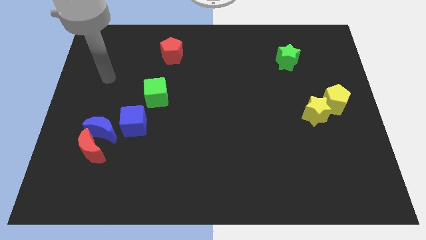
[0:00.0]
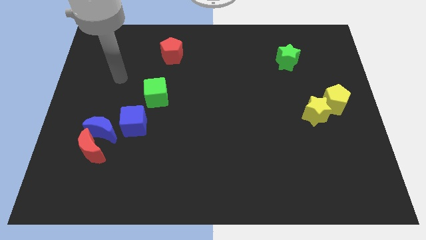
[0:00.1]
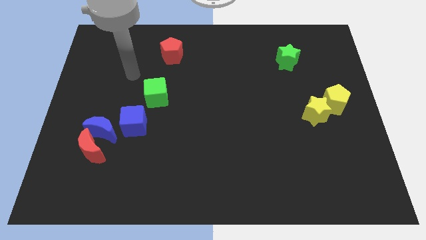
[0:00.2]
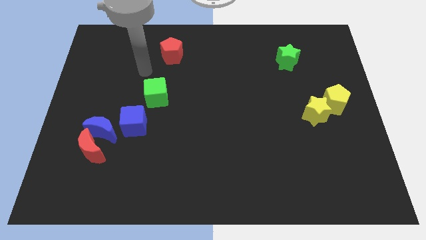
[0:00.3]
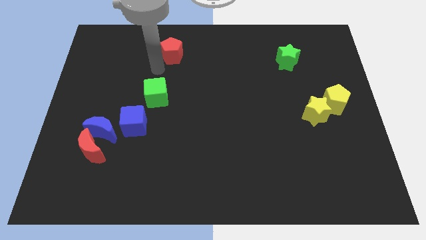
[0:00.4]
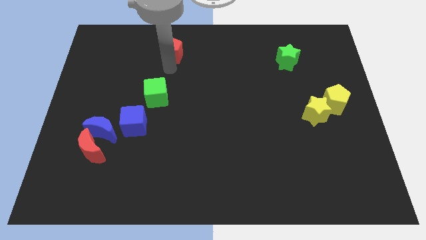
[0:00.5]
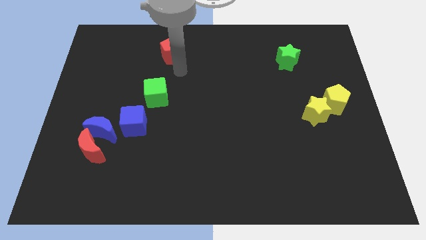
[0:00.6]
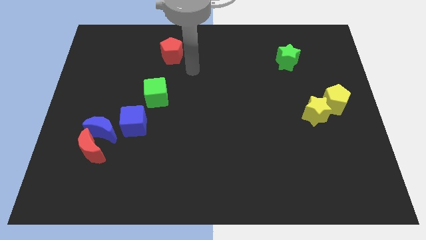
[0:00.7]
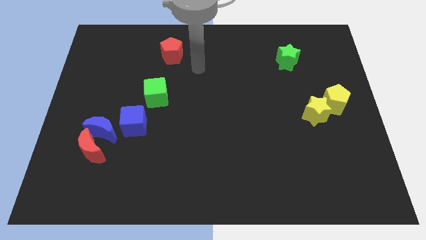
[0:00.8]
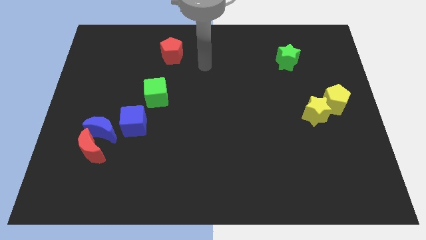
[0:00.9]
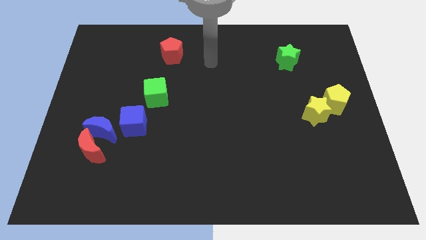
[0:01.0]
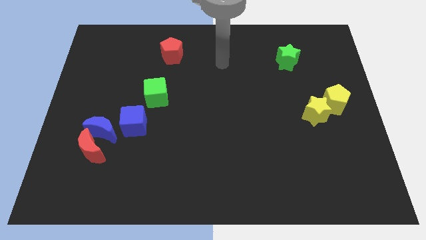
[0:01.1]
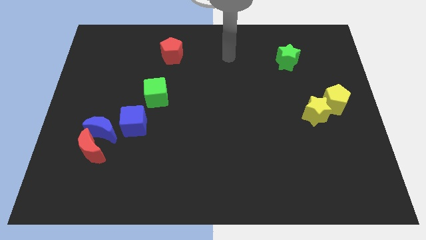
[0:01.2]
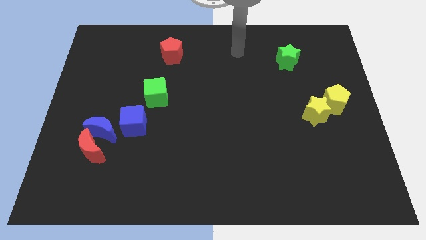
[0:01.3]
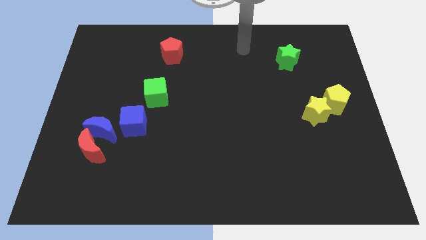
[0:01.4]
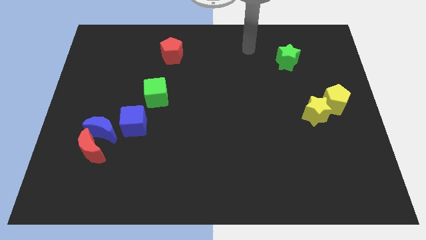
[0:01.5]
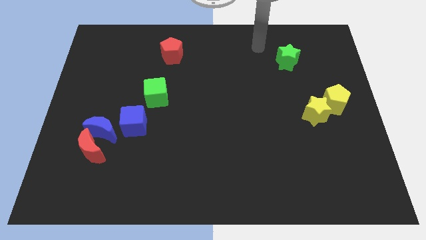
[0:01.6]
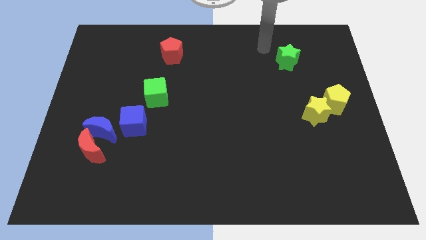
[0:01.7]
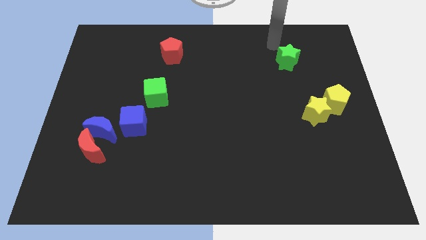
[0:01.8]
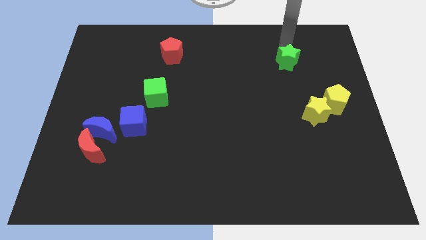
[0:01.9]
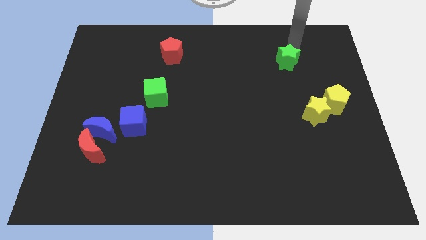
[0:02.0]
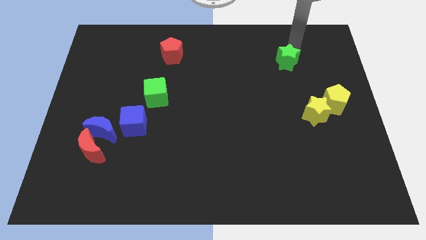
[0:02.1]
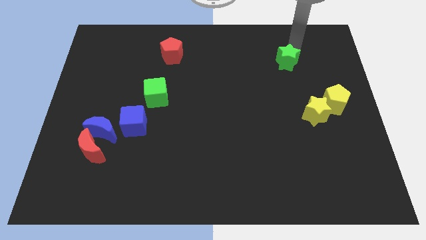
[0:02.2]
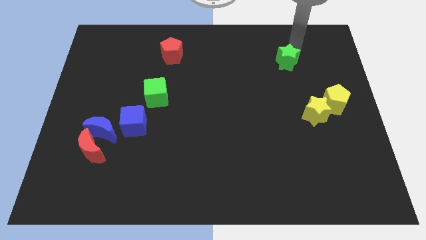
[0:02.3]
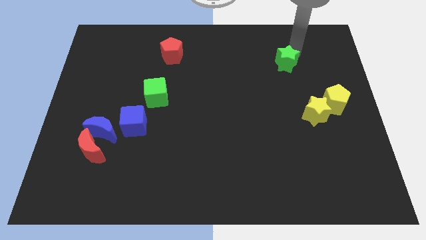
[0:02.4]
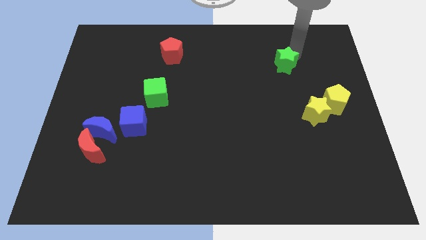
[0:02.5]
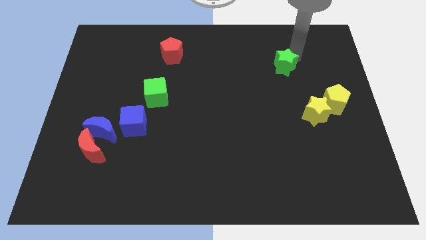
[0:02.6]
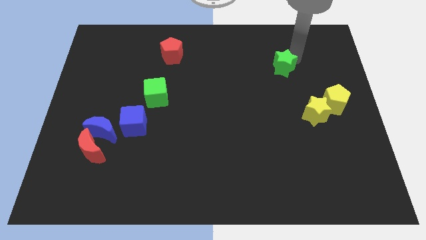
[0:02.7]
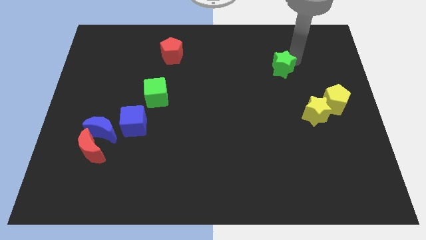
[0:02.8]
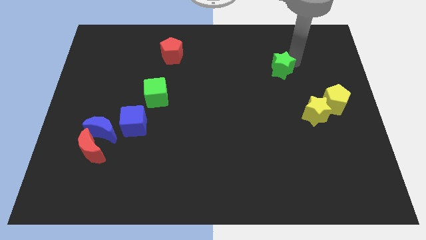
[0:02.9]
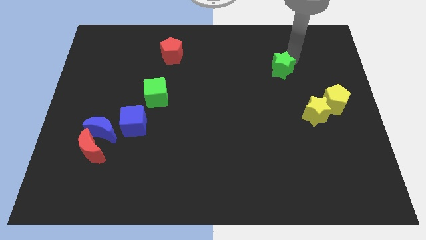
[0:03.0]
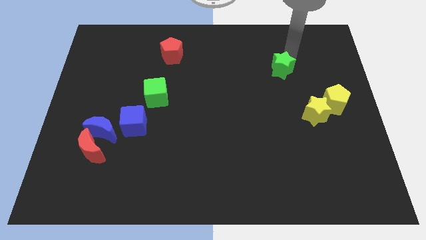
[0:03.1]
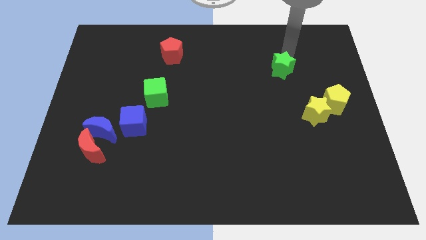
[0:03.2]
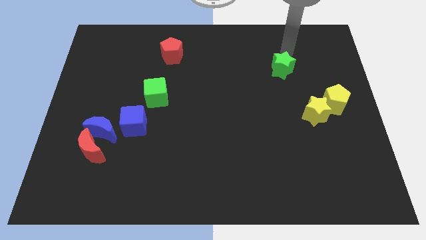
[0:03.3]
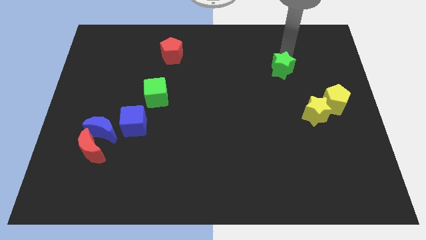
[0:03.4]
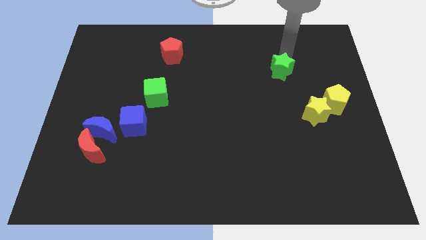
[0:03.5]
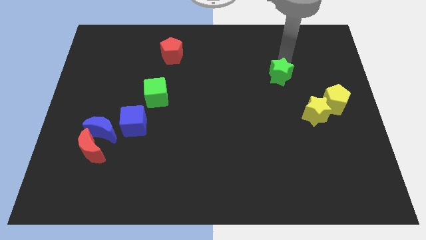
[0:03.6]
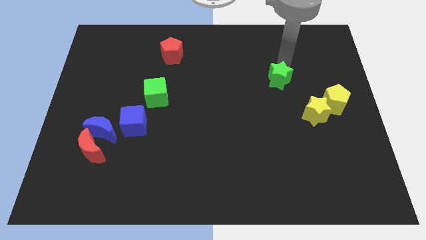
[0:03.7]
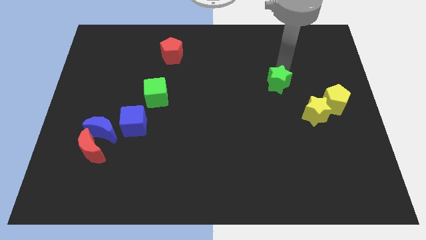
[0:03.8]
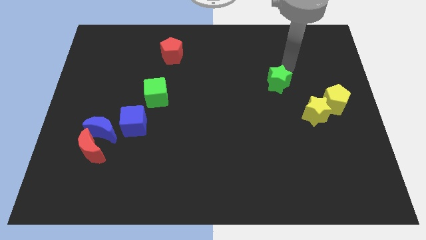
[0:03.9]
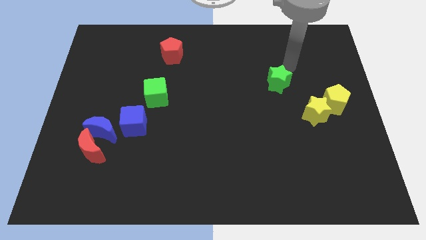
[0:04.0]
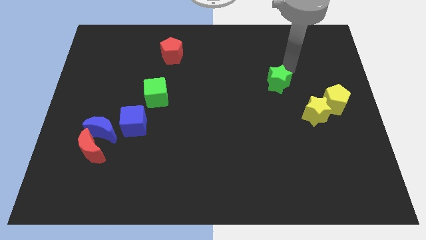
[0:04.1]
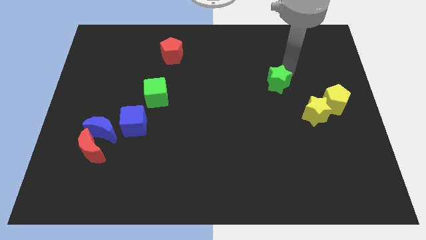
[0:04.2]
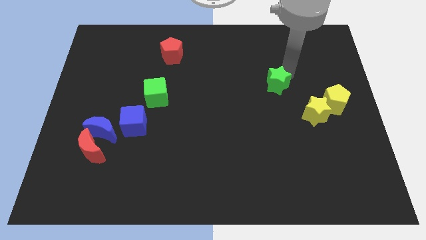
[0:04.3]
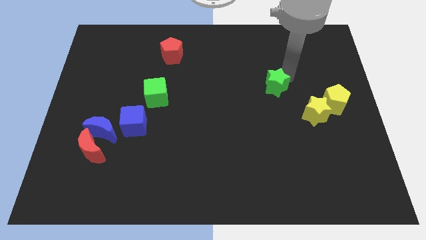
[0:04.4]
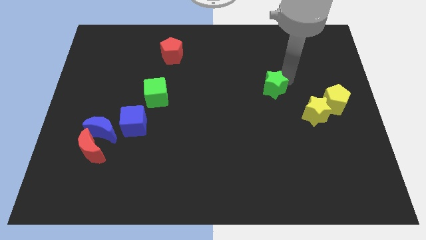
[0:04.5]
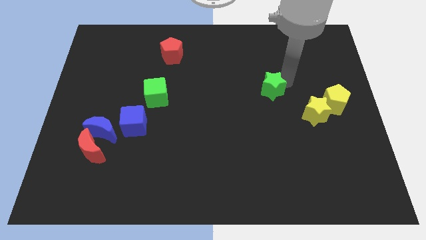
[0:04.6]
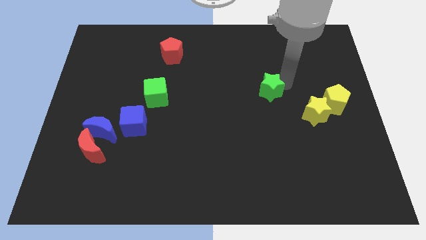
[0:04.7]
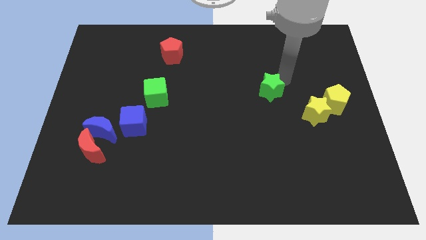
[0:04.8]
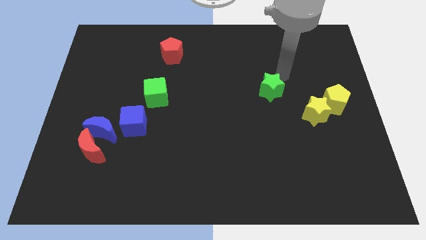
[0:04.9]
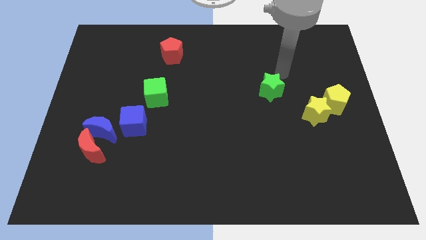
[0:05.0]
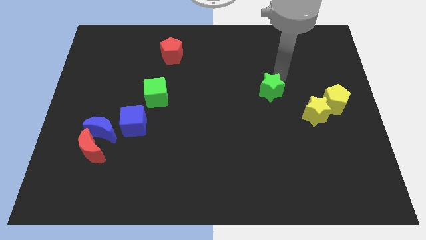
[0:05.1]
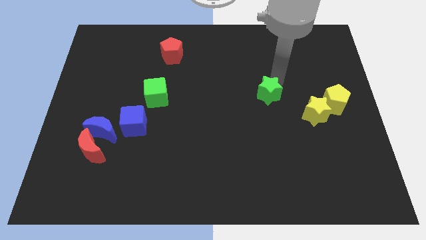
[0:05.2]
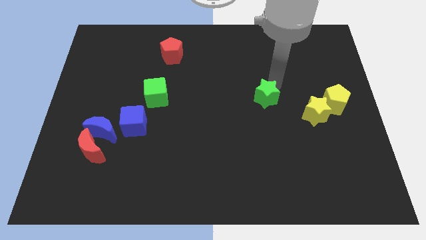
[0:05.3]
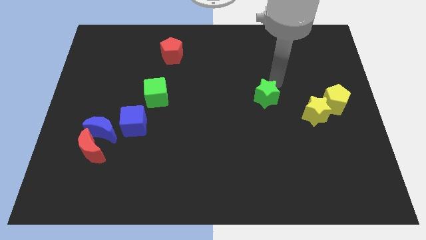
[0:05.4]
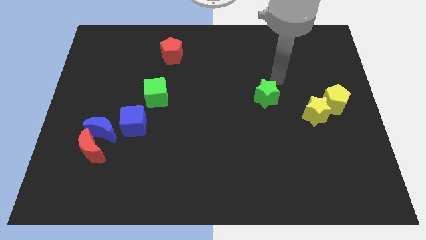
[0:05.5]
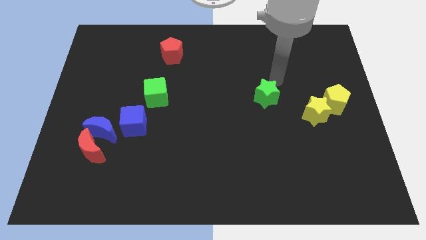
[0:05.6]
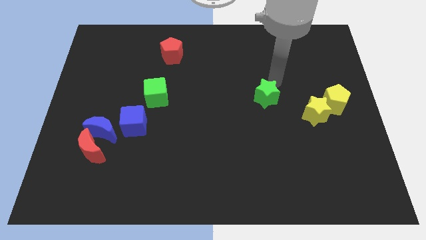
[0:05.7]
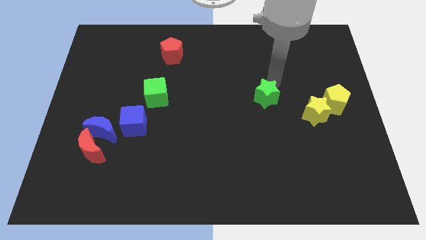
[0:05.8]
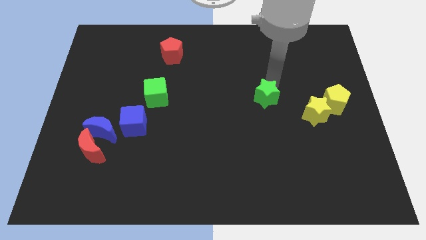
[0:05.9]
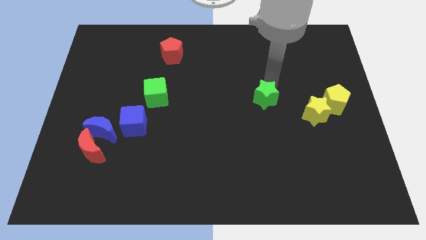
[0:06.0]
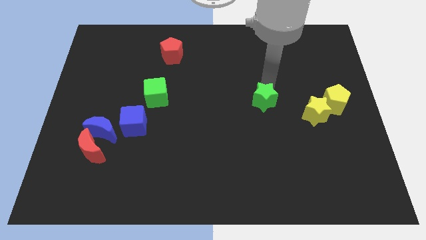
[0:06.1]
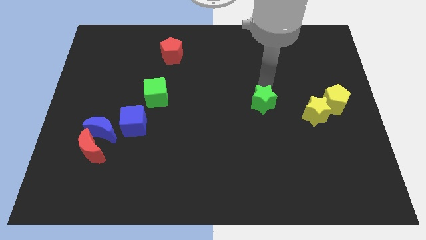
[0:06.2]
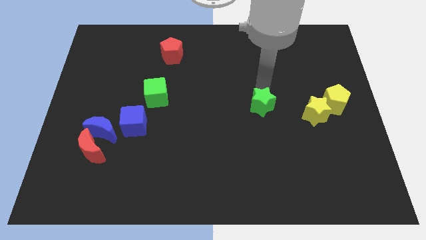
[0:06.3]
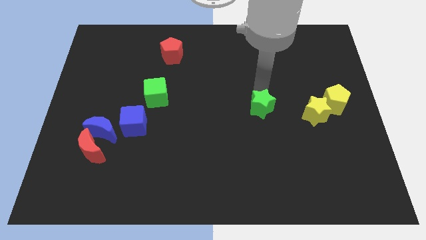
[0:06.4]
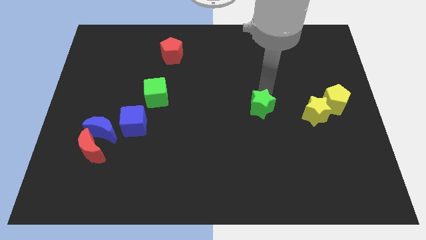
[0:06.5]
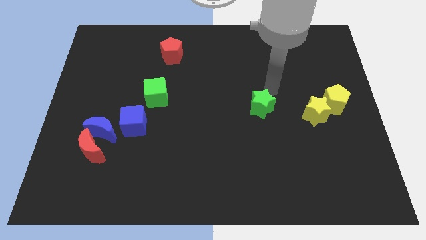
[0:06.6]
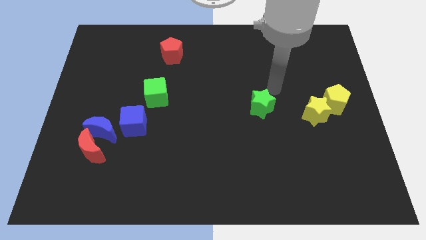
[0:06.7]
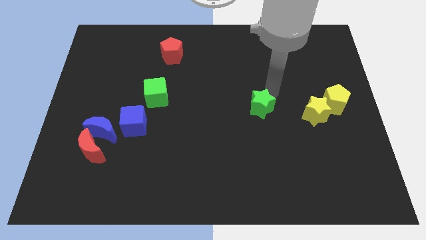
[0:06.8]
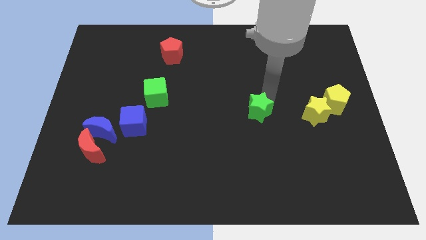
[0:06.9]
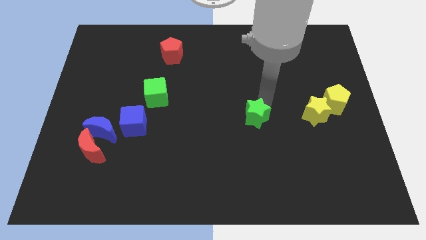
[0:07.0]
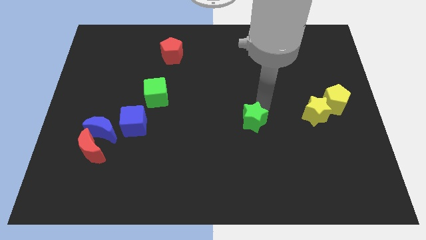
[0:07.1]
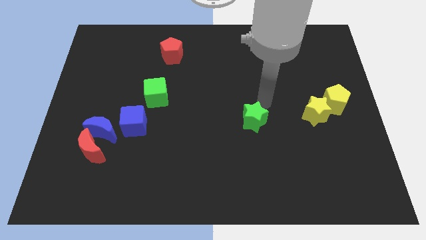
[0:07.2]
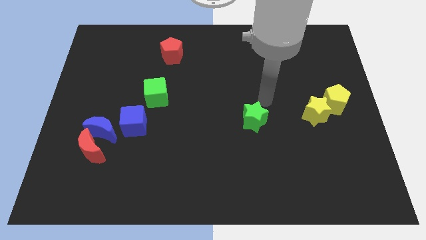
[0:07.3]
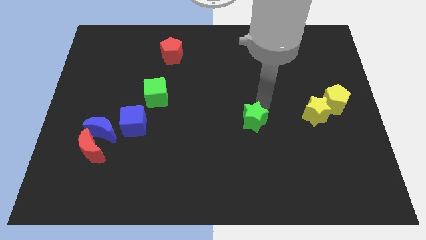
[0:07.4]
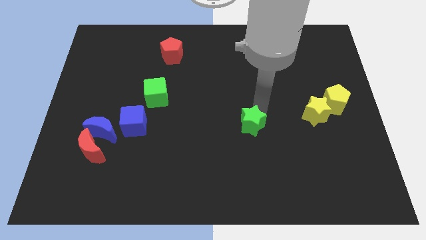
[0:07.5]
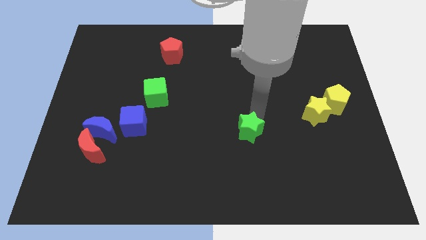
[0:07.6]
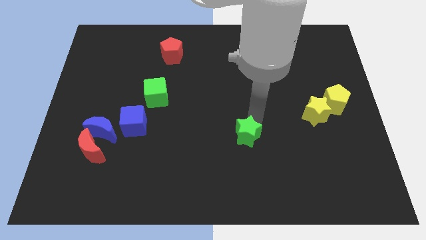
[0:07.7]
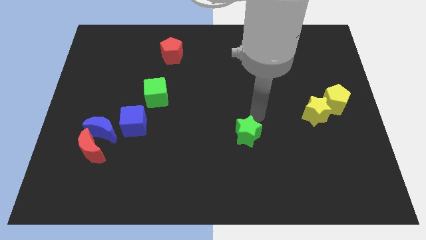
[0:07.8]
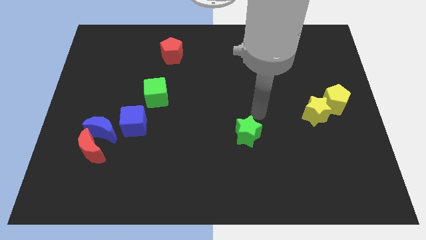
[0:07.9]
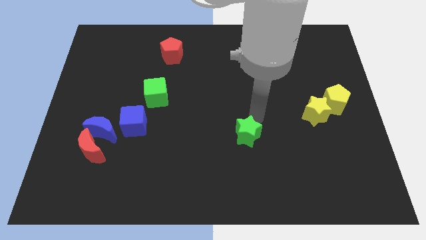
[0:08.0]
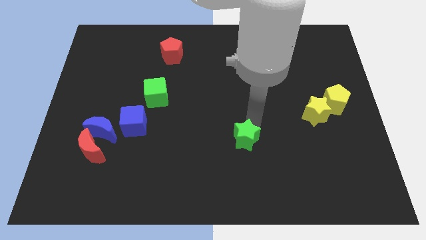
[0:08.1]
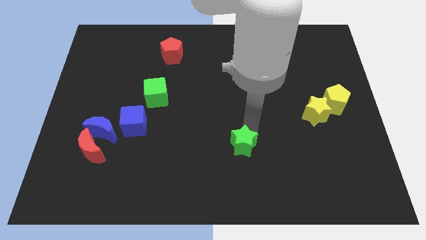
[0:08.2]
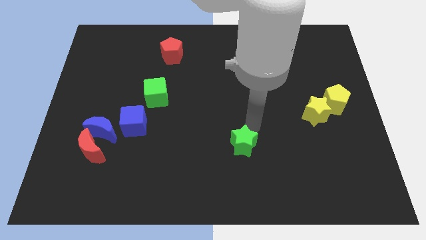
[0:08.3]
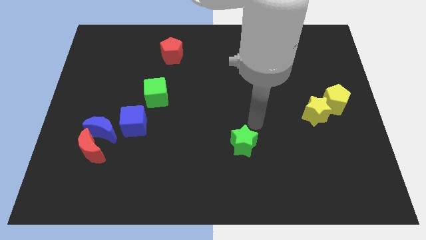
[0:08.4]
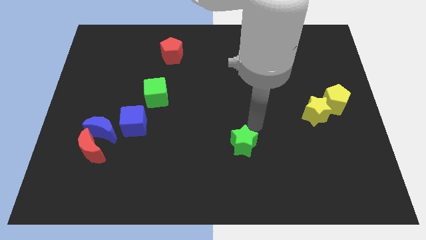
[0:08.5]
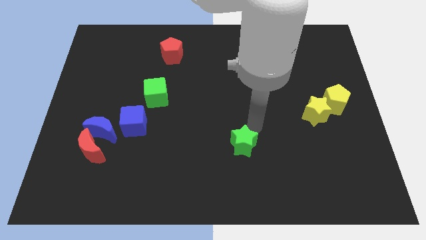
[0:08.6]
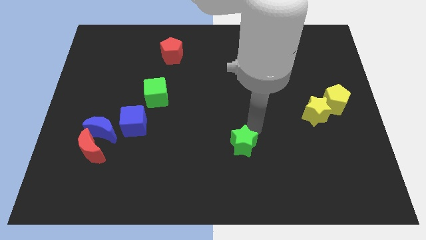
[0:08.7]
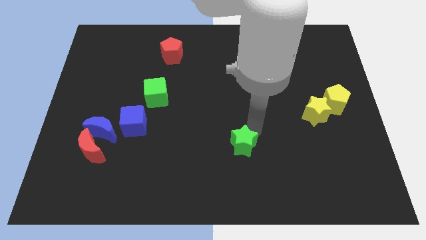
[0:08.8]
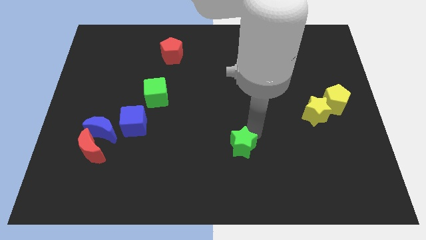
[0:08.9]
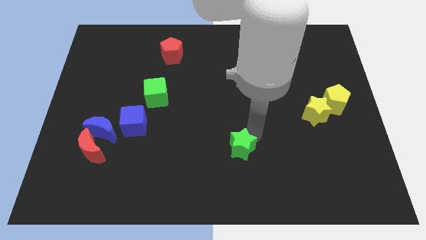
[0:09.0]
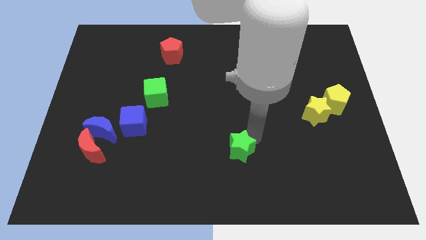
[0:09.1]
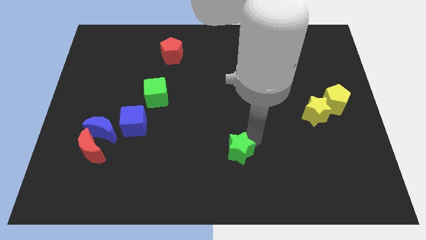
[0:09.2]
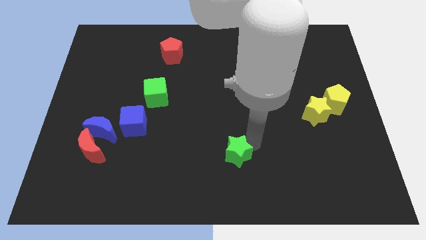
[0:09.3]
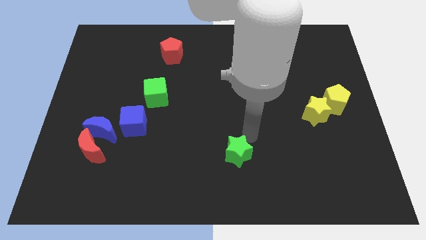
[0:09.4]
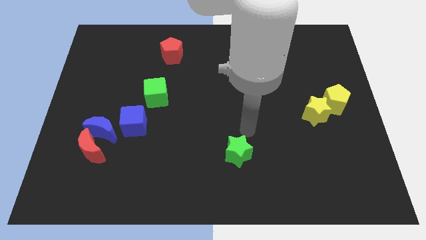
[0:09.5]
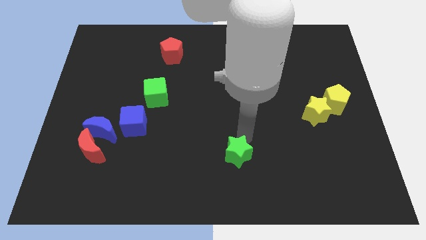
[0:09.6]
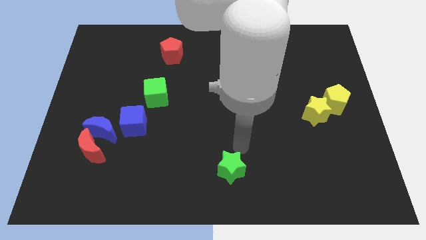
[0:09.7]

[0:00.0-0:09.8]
push the green star to the bottom side
